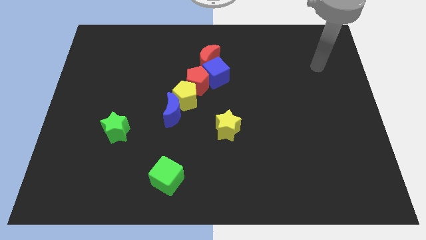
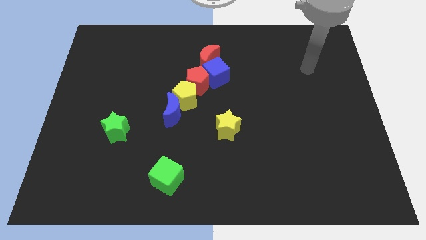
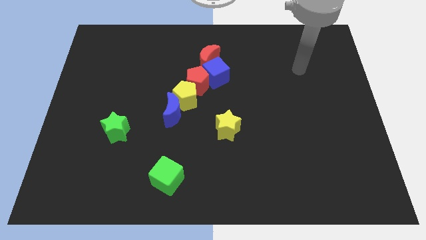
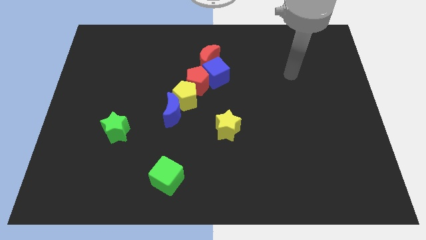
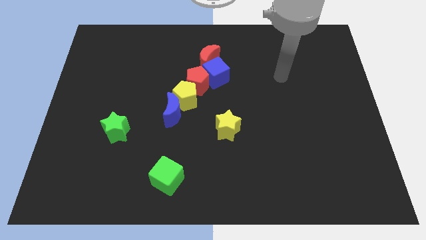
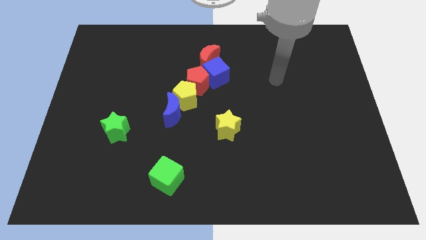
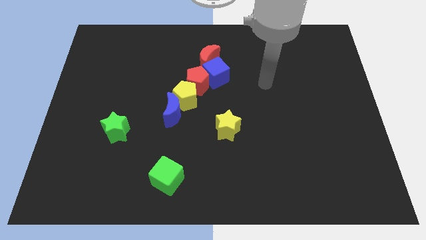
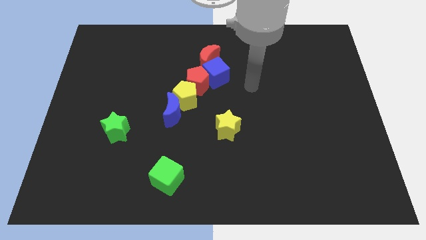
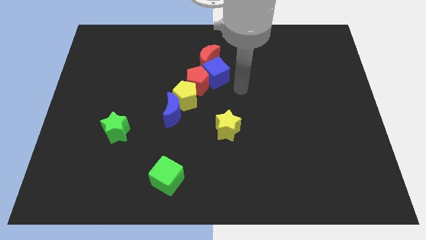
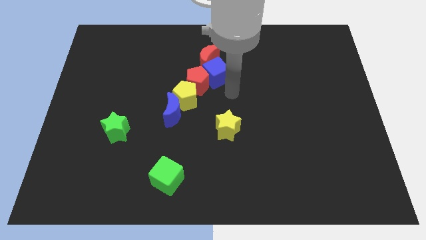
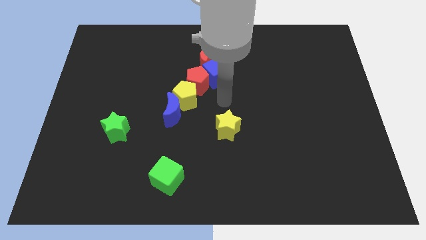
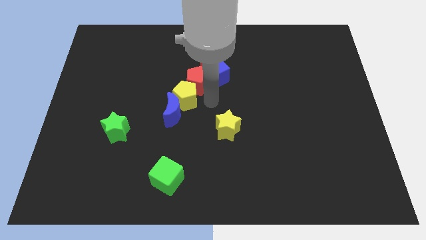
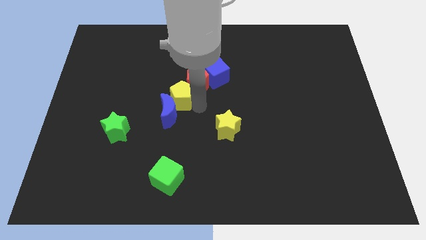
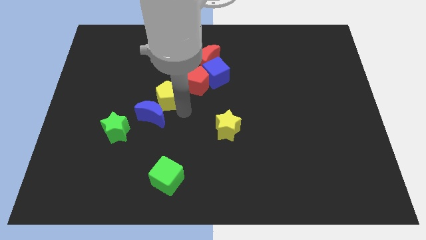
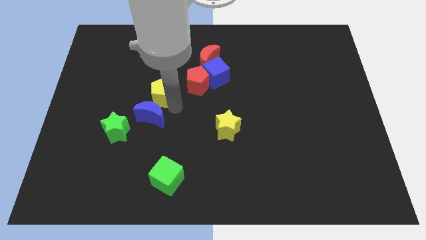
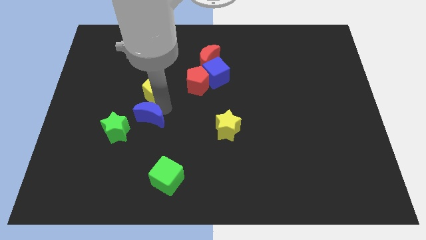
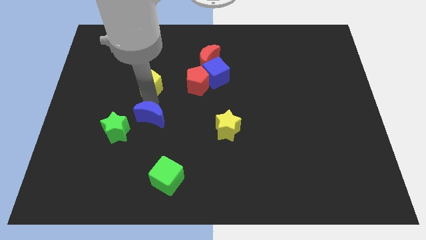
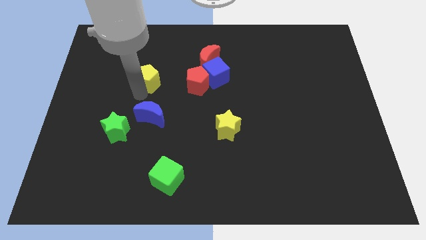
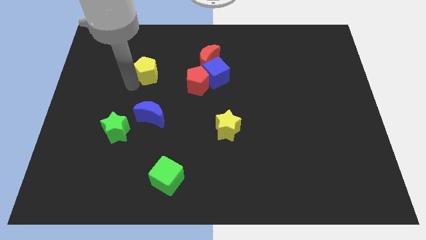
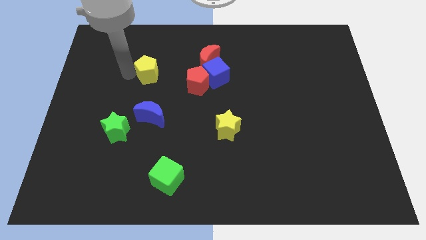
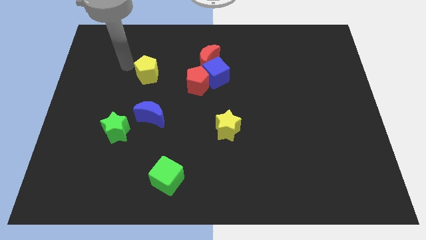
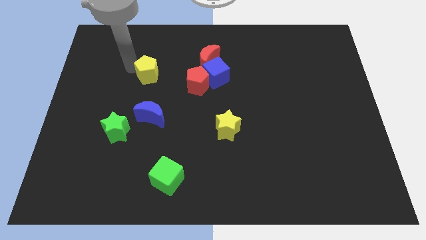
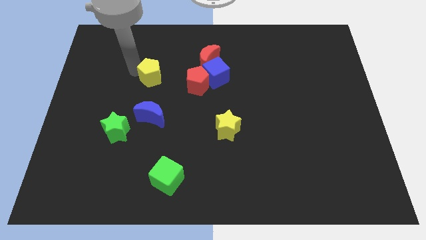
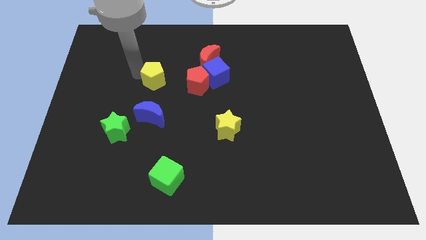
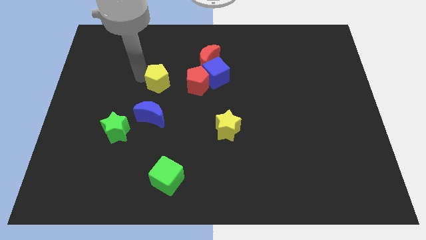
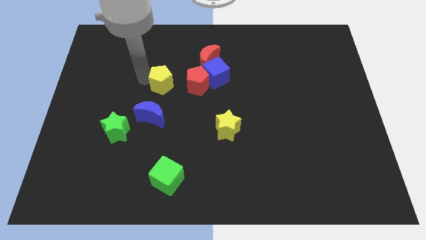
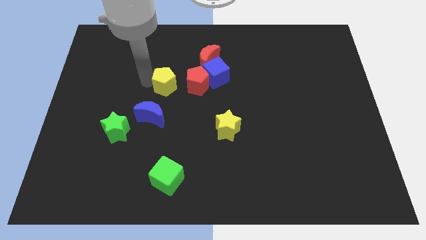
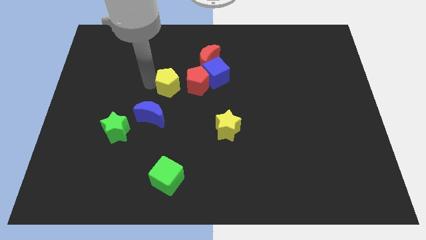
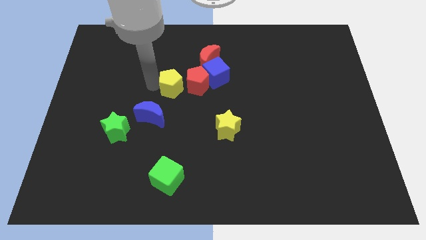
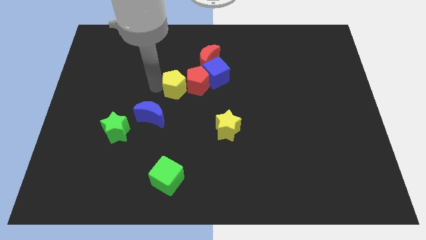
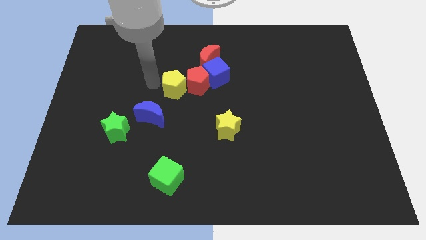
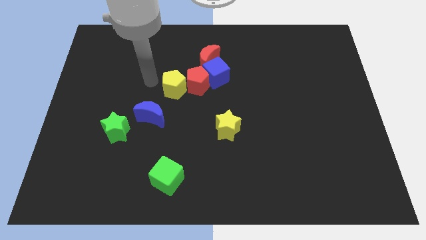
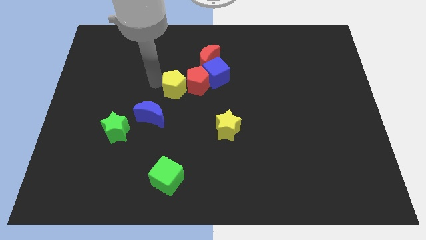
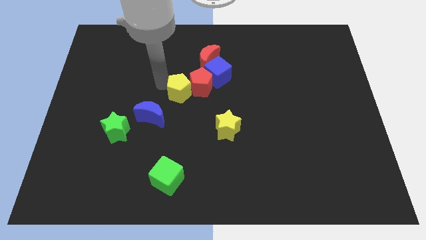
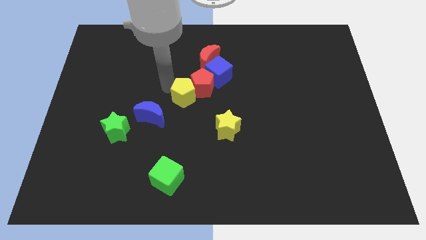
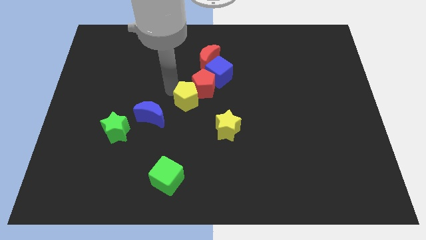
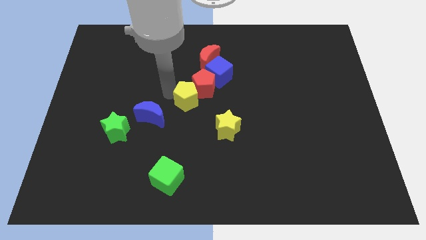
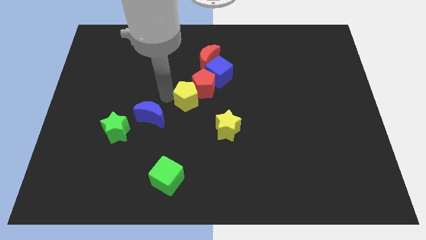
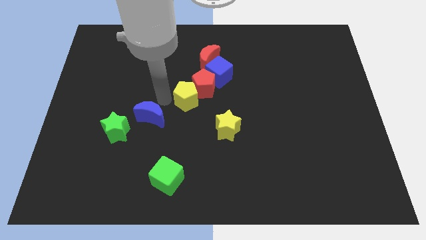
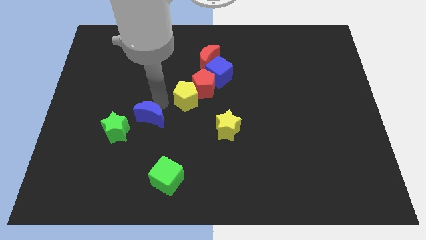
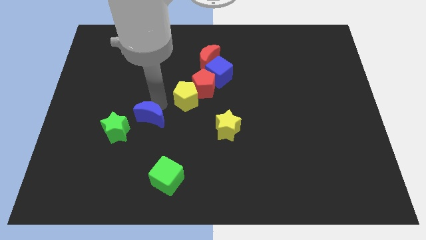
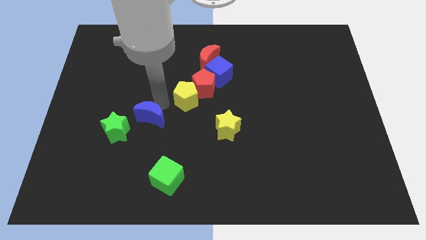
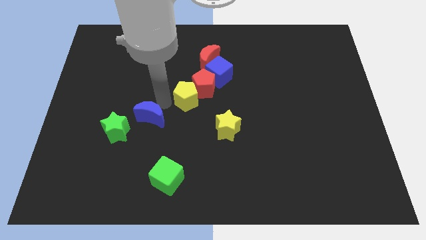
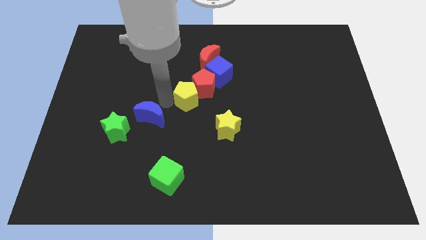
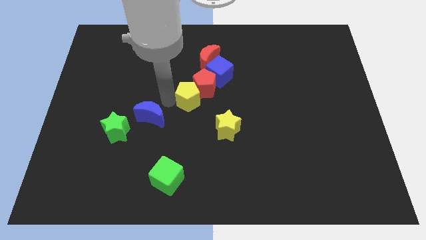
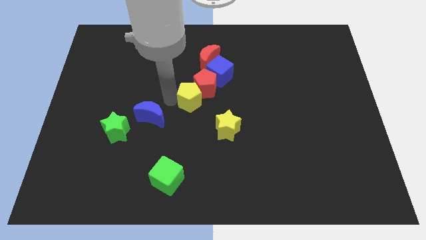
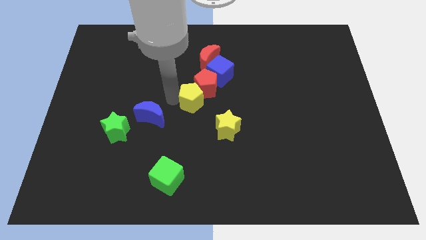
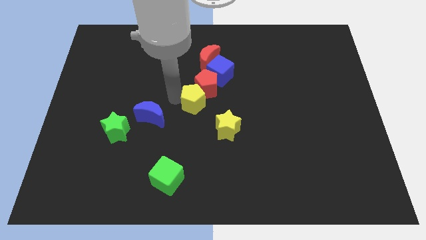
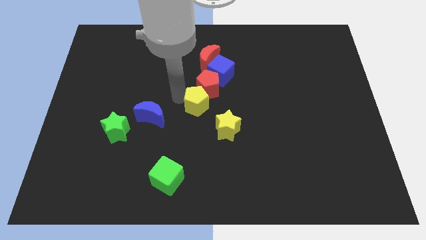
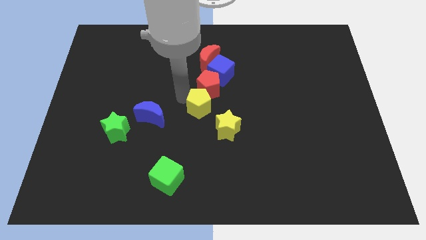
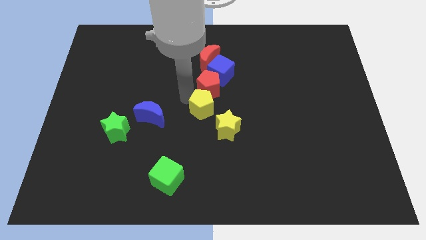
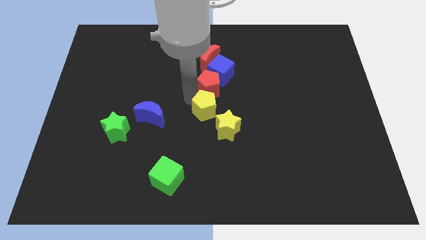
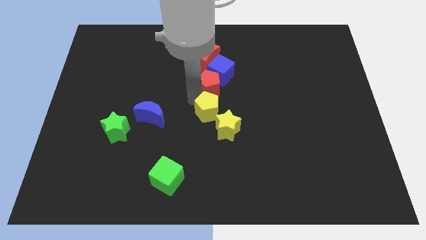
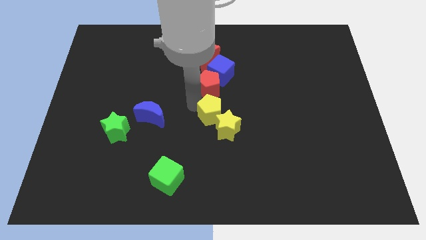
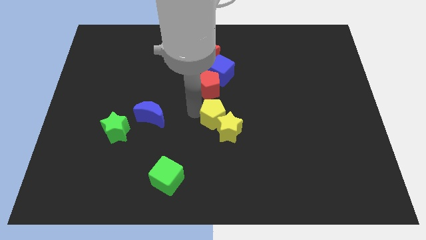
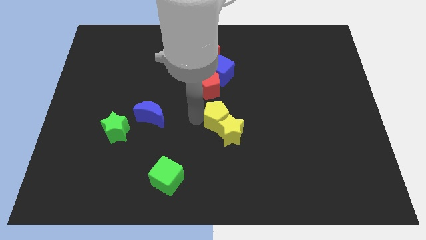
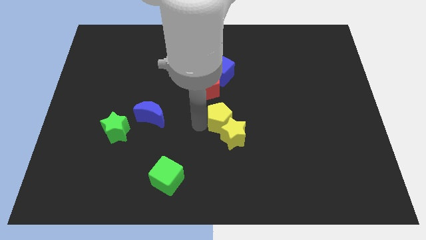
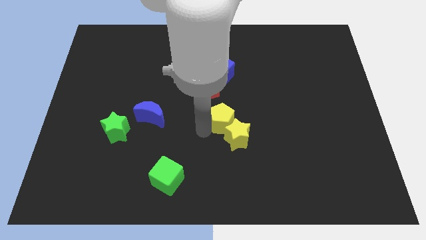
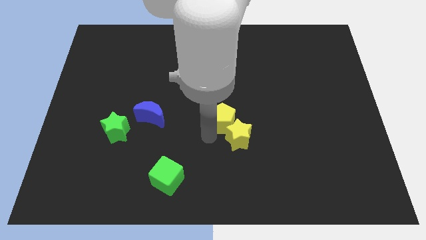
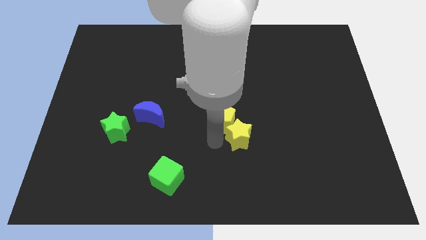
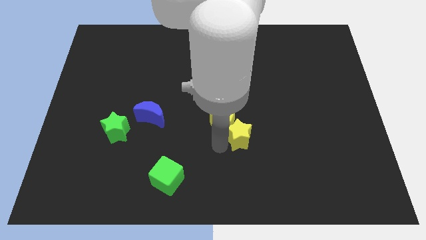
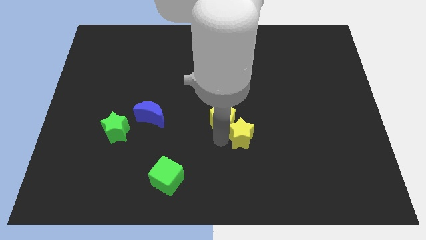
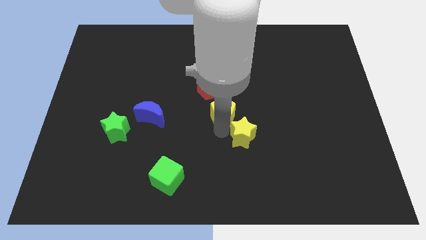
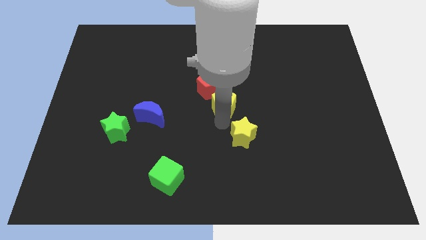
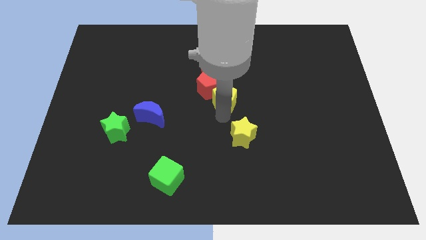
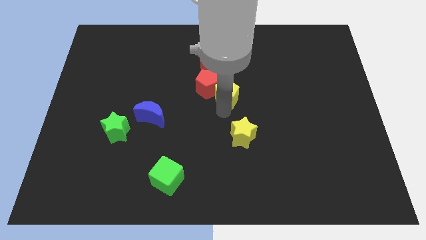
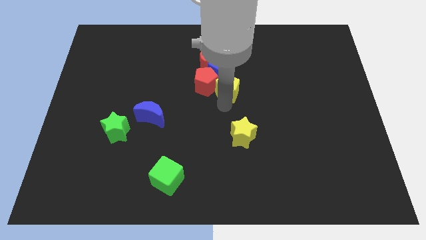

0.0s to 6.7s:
move the yellow pentagon diagonally up and to the right a little

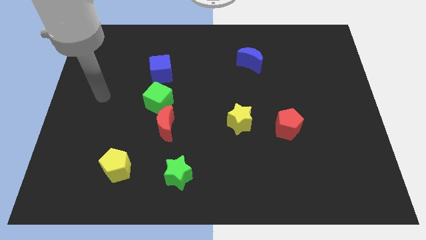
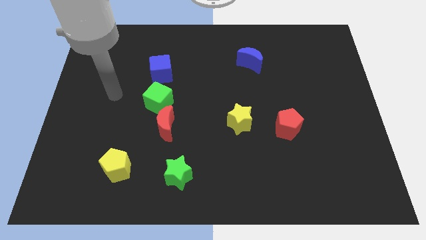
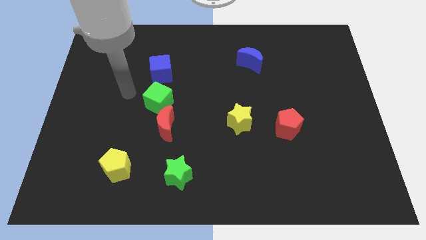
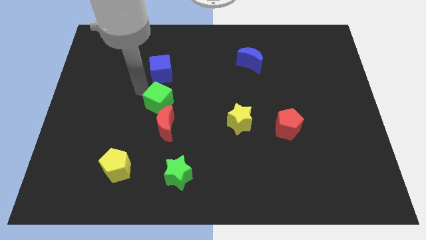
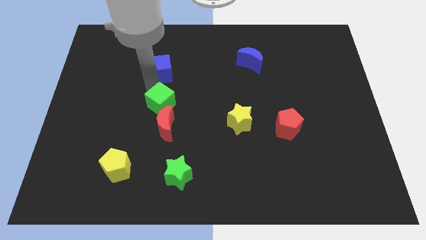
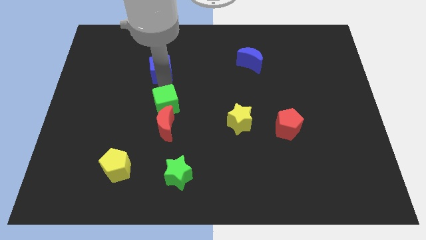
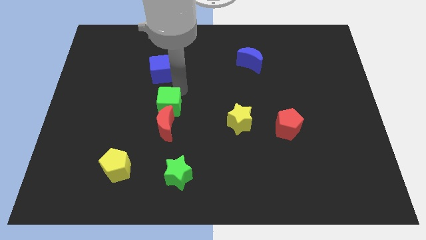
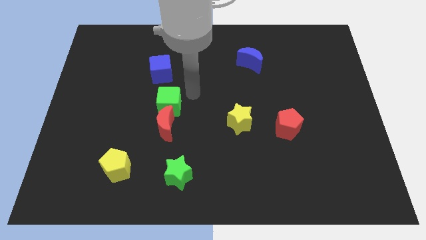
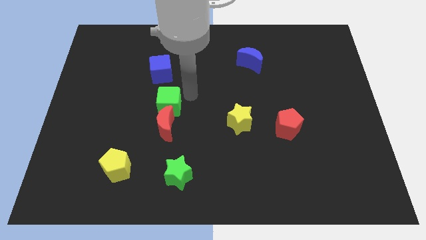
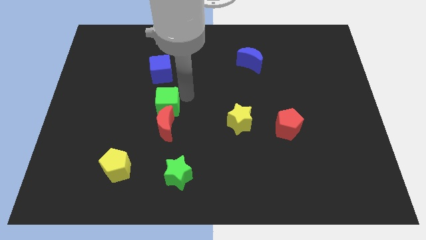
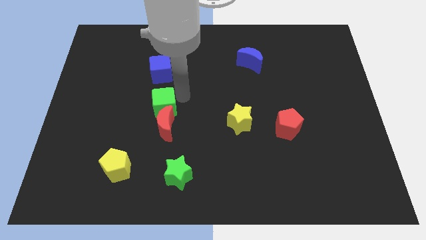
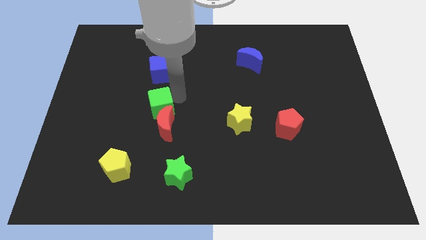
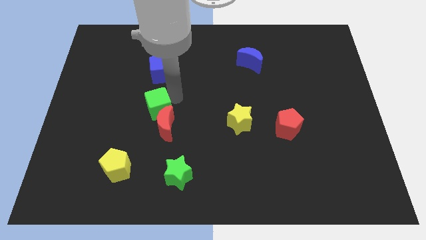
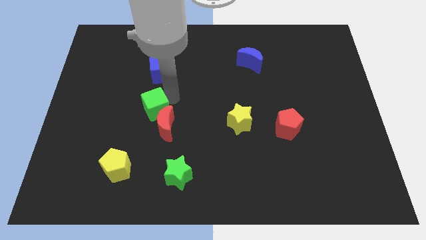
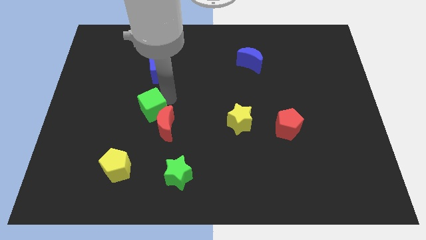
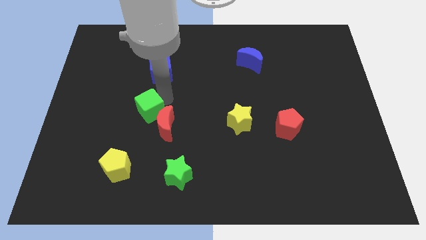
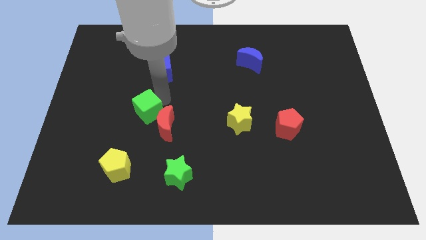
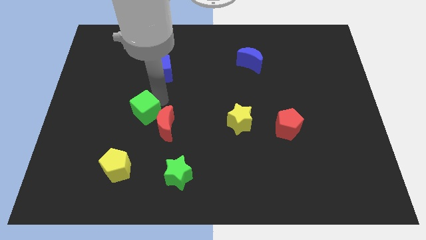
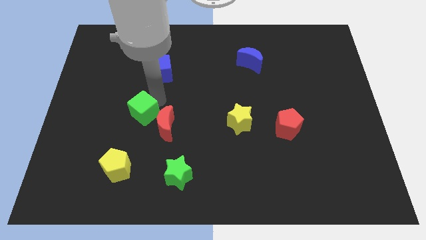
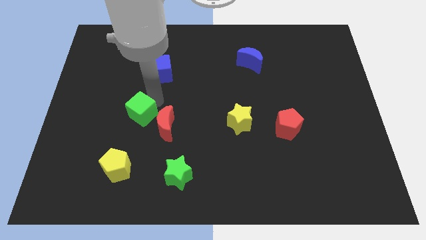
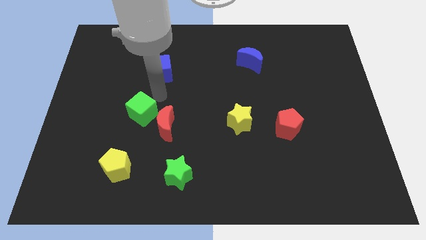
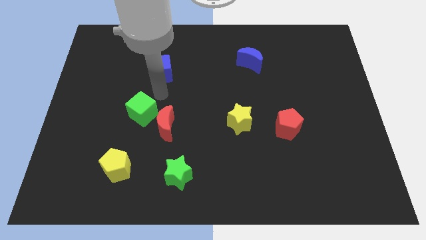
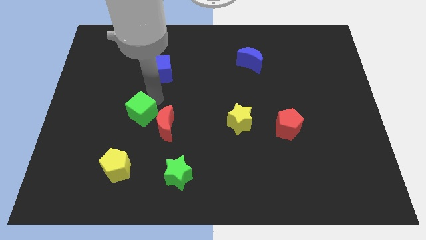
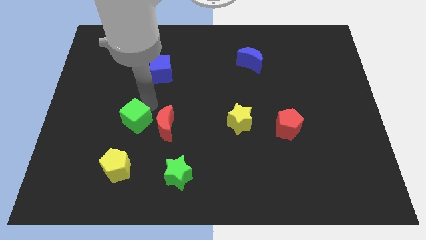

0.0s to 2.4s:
move the green cube diagonally downwards and to the left a bit
